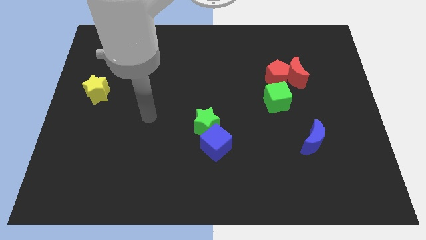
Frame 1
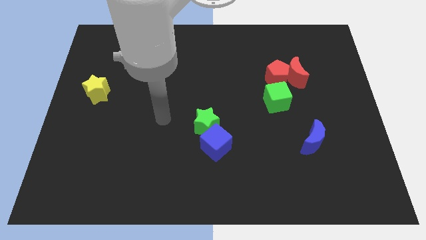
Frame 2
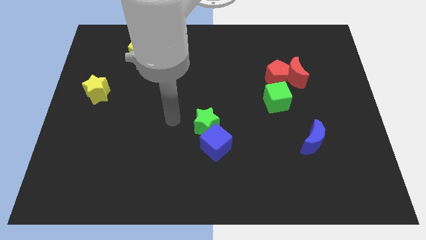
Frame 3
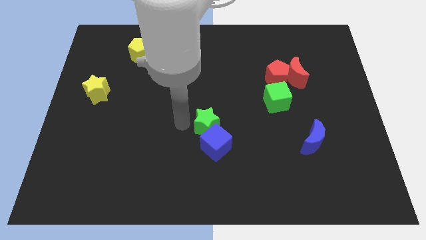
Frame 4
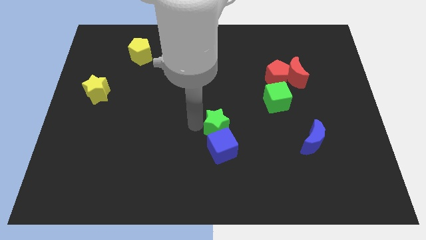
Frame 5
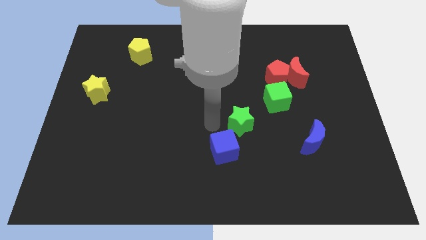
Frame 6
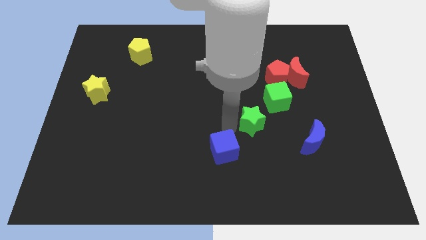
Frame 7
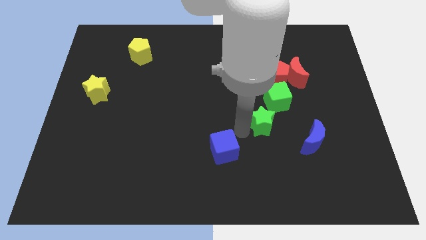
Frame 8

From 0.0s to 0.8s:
separate the blue cube from the green star

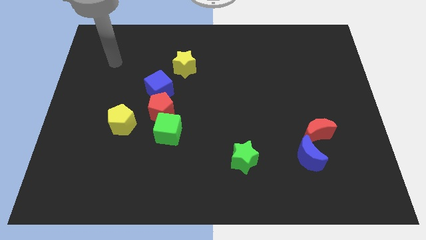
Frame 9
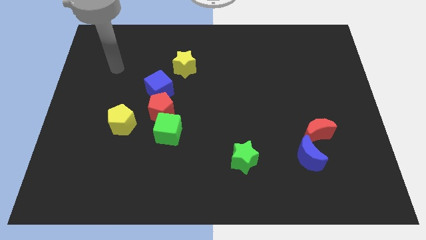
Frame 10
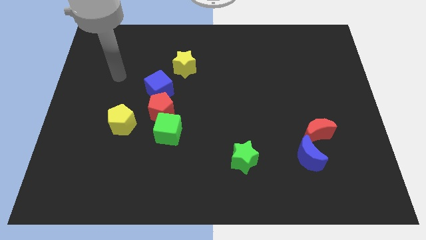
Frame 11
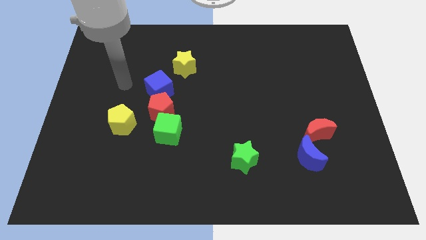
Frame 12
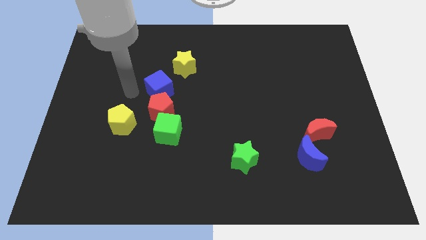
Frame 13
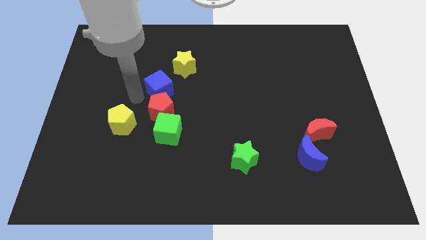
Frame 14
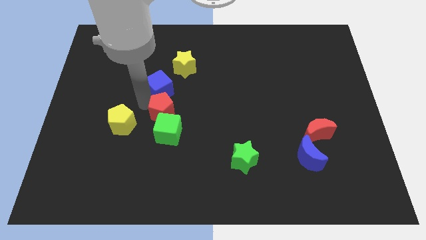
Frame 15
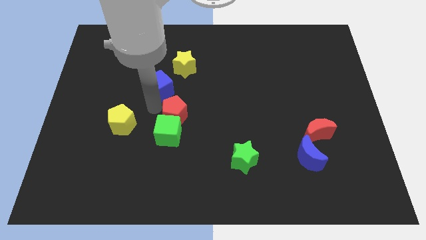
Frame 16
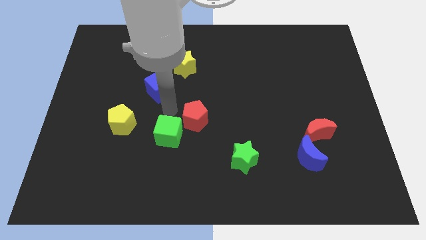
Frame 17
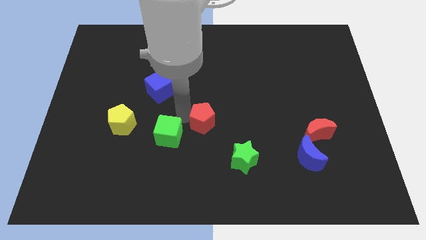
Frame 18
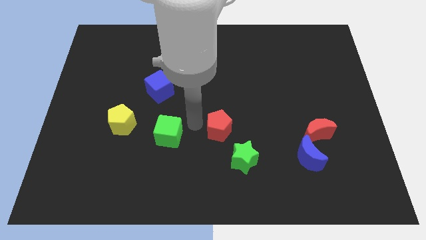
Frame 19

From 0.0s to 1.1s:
pull the green cube apart from the red pentagon

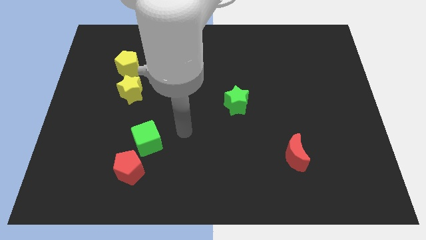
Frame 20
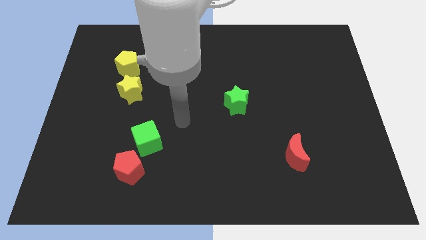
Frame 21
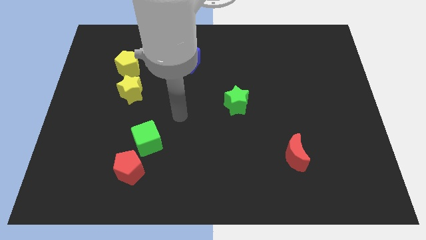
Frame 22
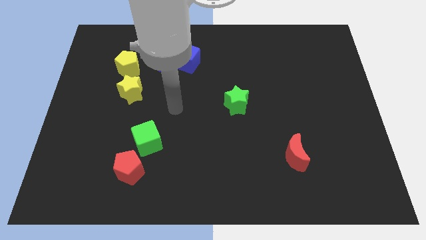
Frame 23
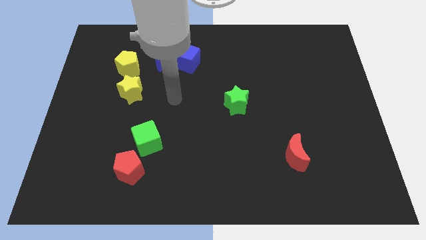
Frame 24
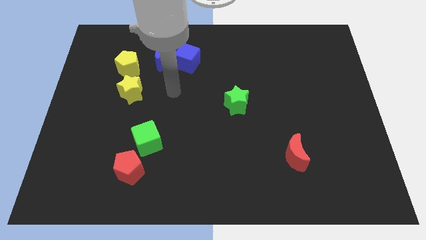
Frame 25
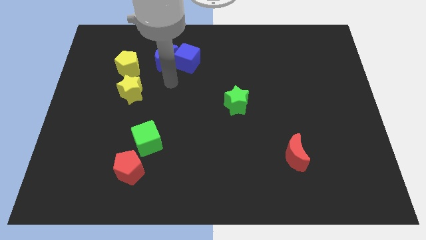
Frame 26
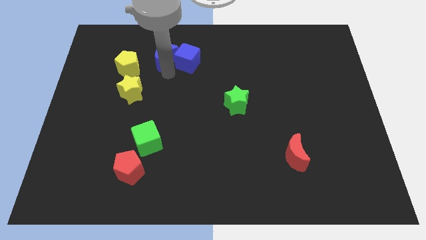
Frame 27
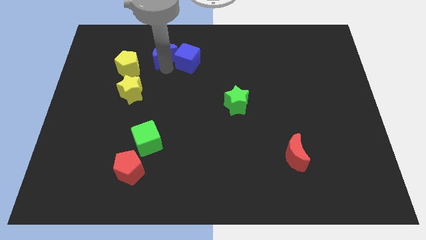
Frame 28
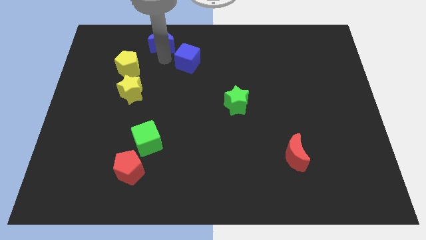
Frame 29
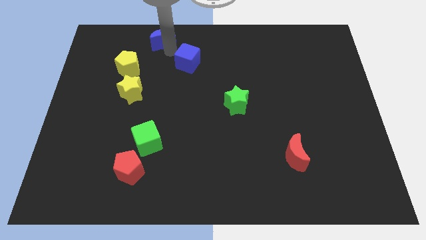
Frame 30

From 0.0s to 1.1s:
move the blue cube away from the blue moon

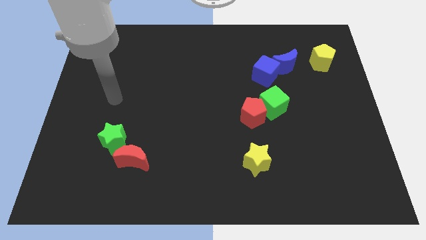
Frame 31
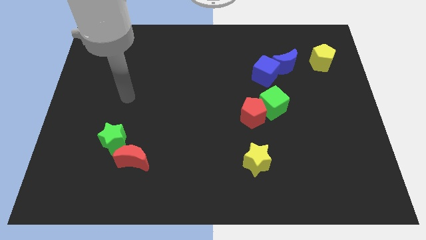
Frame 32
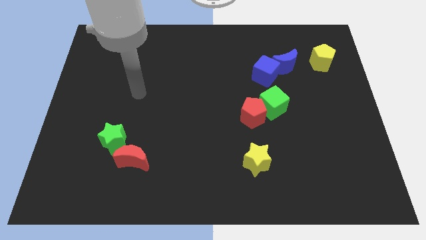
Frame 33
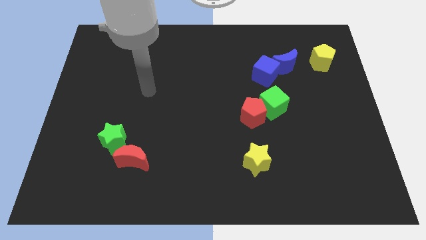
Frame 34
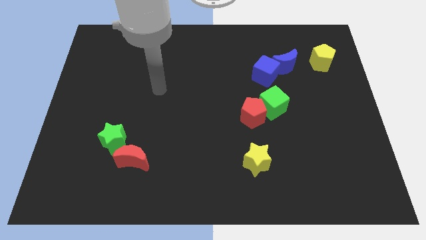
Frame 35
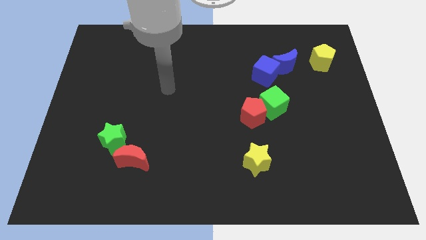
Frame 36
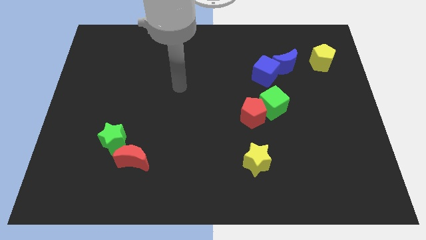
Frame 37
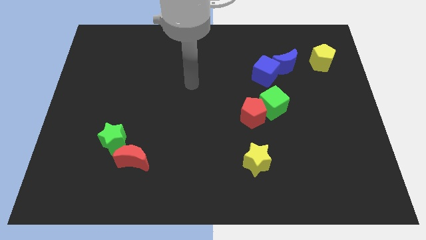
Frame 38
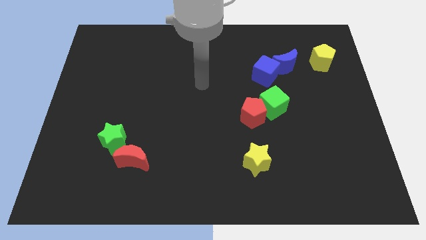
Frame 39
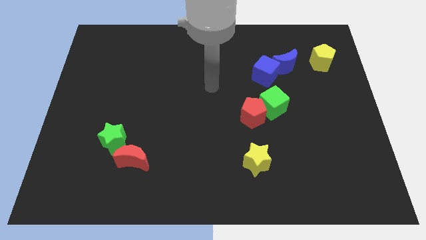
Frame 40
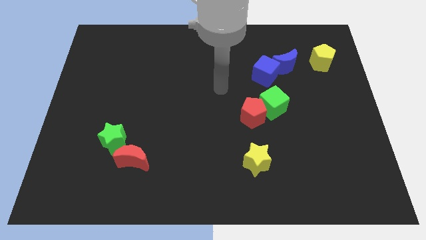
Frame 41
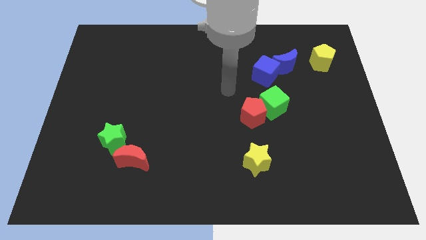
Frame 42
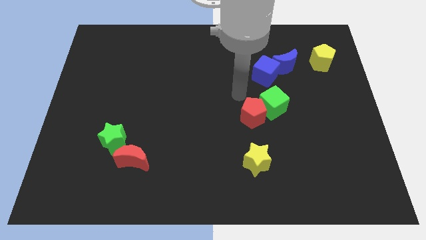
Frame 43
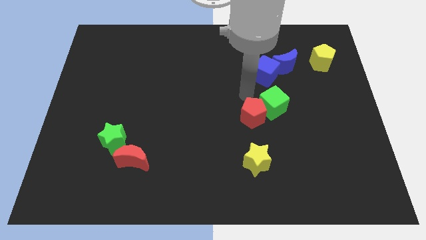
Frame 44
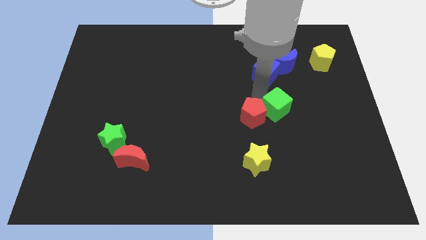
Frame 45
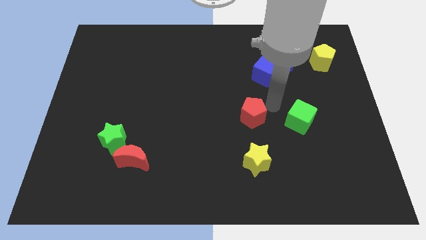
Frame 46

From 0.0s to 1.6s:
move the red pentagon away from the green cube

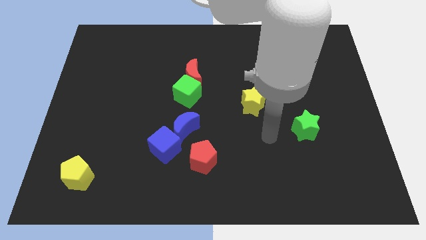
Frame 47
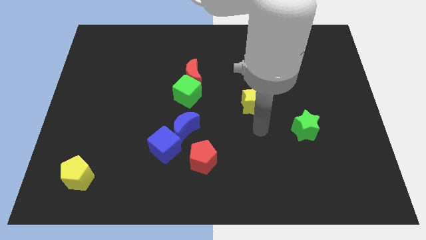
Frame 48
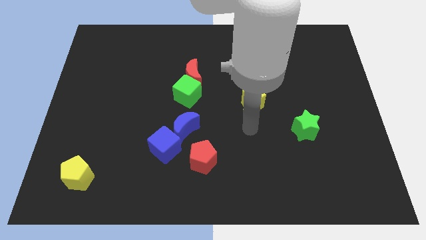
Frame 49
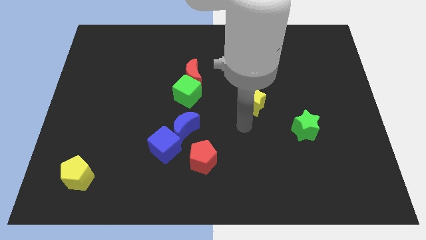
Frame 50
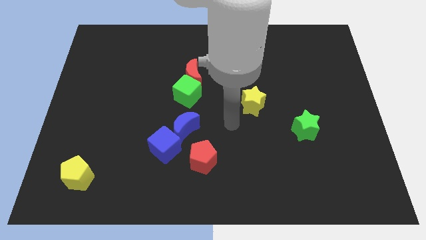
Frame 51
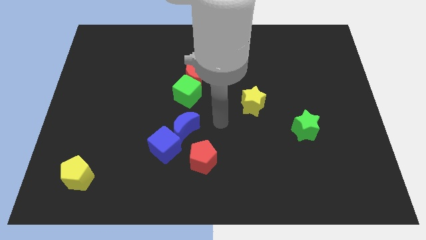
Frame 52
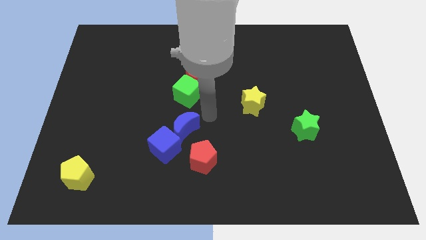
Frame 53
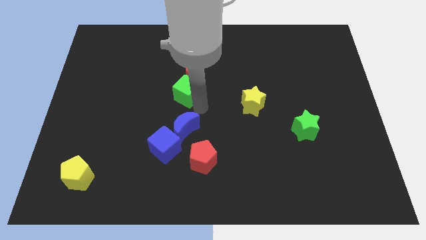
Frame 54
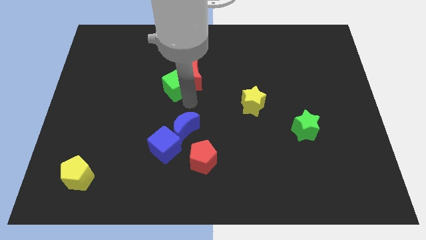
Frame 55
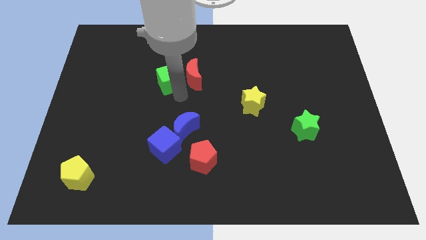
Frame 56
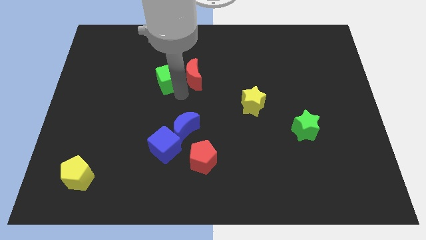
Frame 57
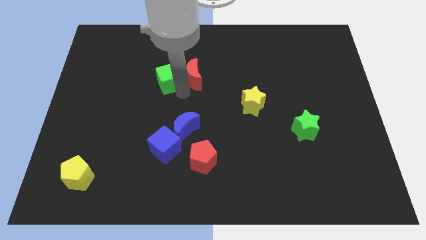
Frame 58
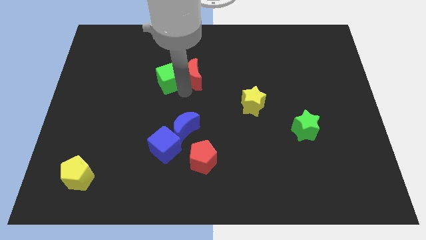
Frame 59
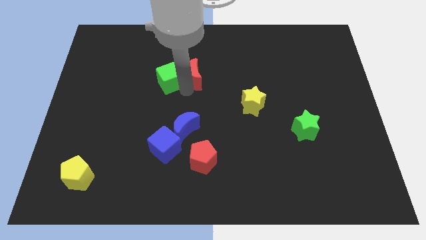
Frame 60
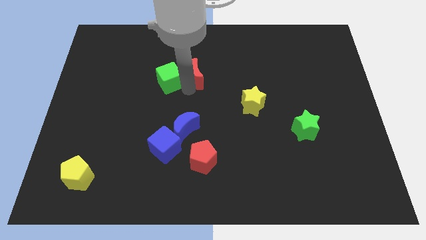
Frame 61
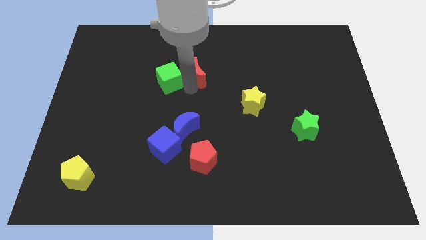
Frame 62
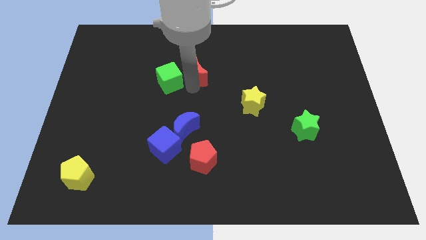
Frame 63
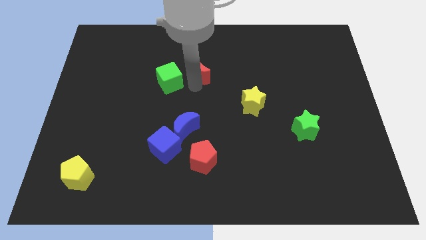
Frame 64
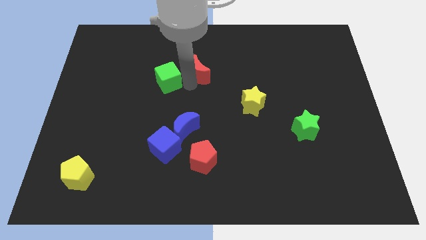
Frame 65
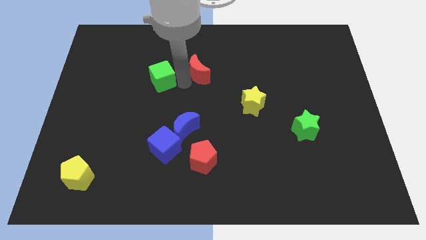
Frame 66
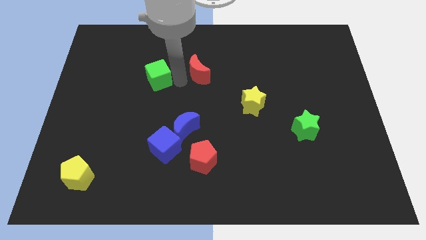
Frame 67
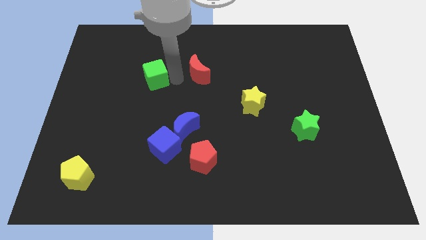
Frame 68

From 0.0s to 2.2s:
separate the red moon from the green cube

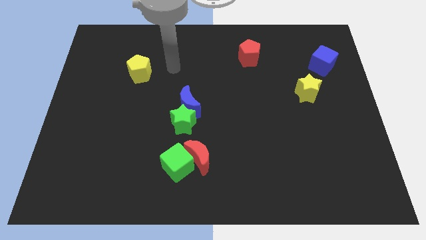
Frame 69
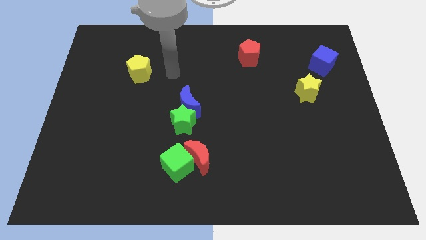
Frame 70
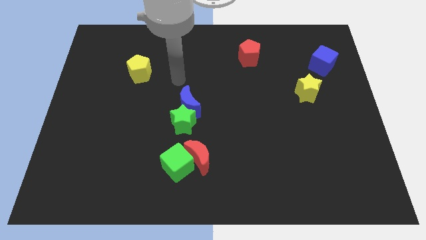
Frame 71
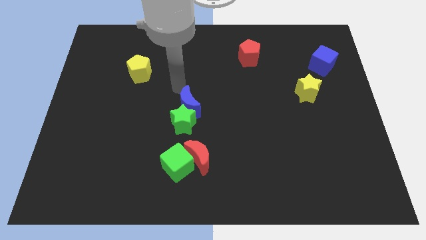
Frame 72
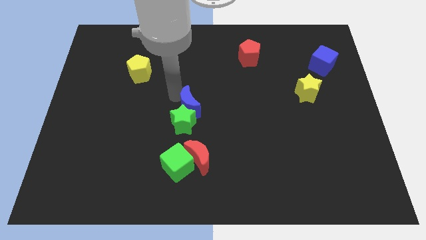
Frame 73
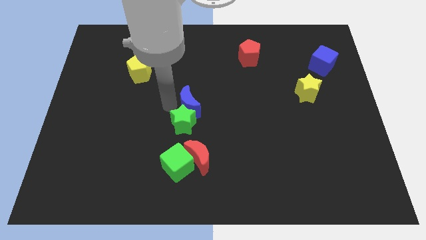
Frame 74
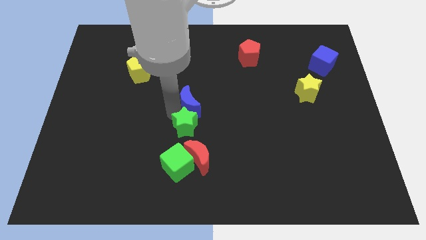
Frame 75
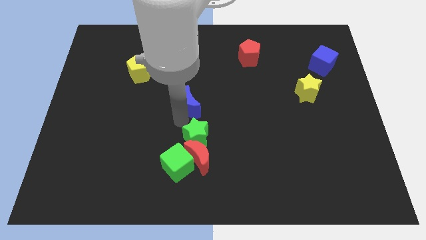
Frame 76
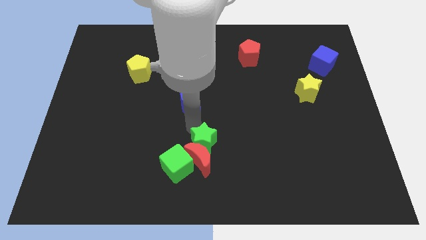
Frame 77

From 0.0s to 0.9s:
move the blue moon away from the green star

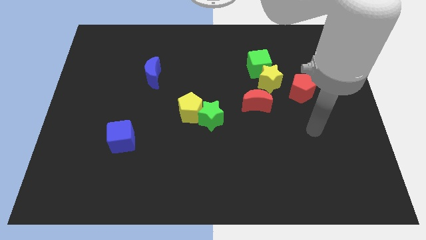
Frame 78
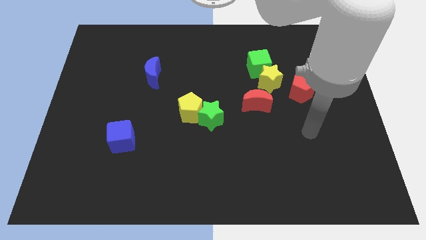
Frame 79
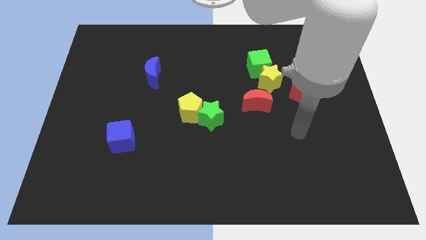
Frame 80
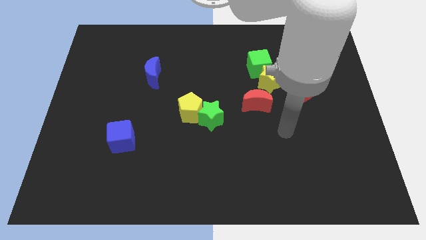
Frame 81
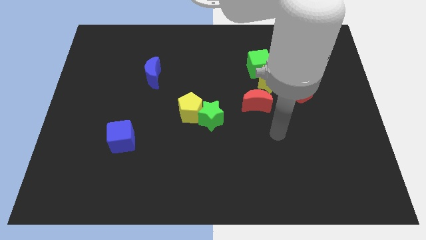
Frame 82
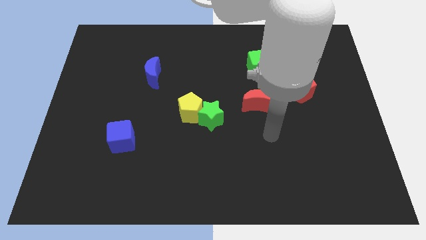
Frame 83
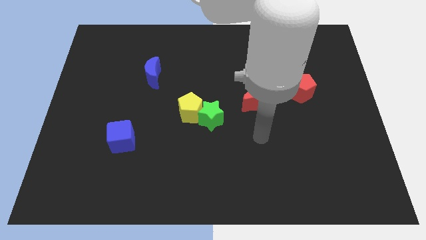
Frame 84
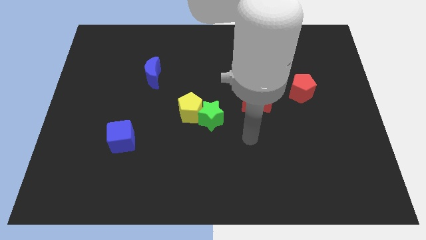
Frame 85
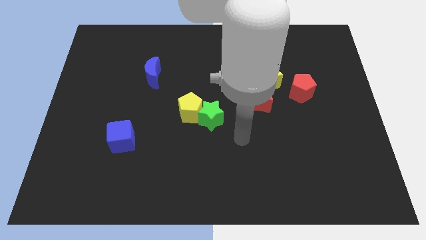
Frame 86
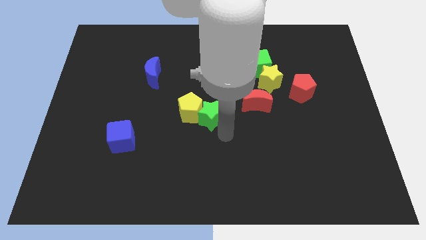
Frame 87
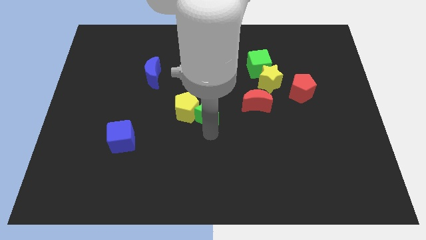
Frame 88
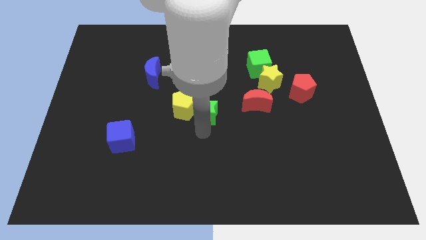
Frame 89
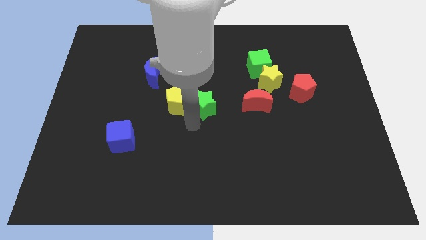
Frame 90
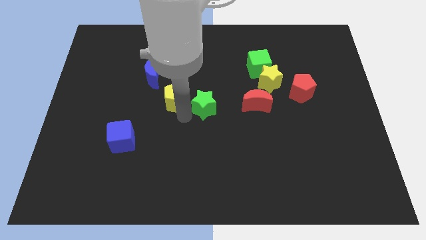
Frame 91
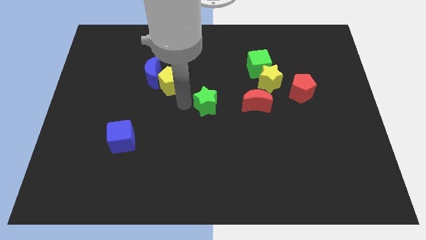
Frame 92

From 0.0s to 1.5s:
move the green star away from the yellow pentagon

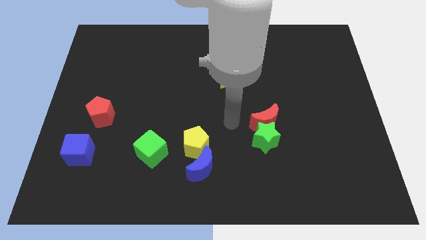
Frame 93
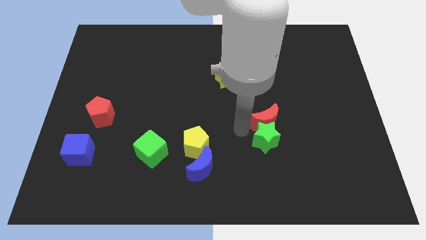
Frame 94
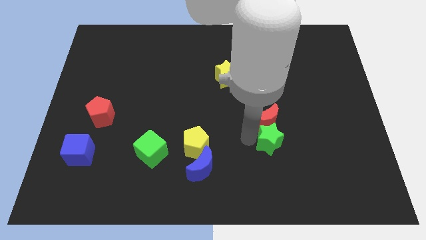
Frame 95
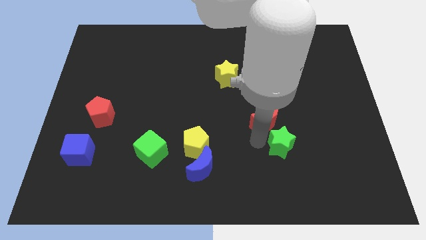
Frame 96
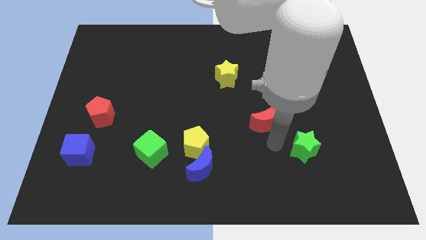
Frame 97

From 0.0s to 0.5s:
pull the red moon apart from the green star
